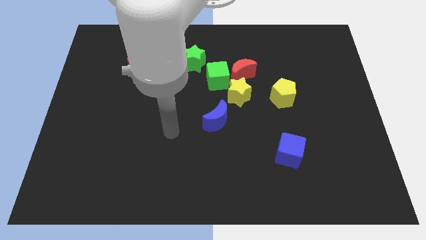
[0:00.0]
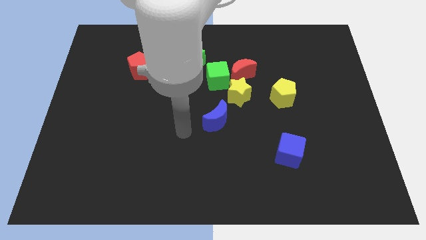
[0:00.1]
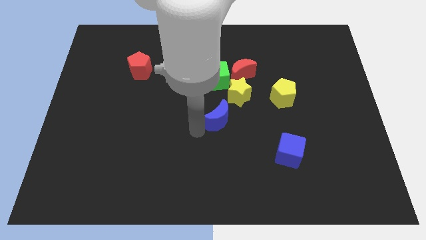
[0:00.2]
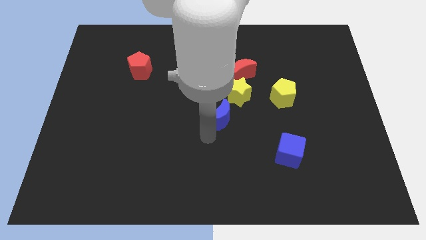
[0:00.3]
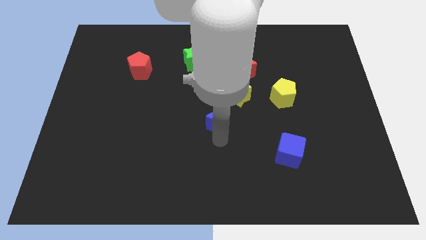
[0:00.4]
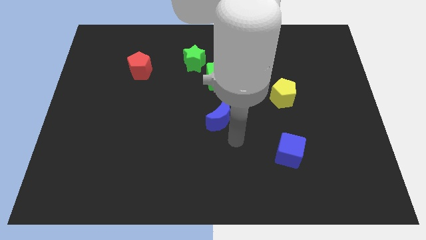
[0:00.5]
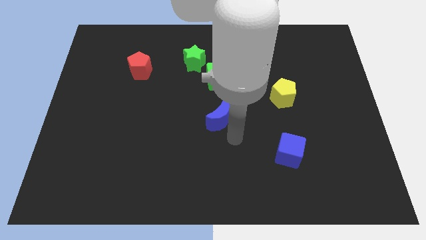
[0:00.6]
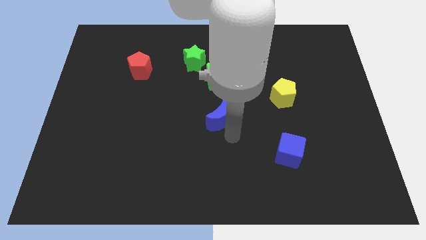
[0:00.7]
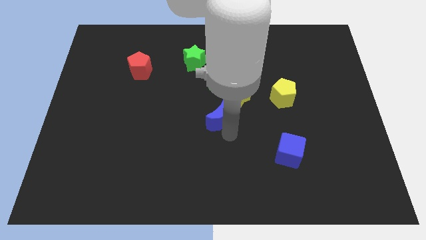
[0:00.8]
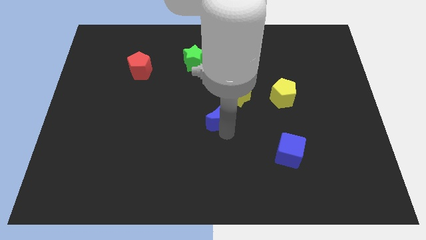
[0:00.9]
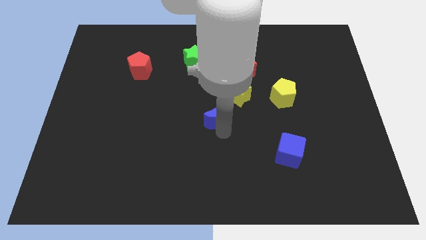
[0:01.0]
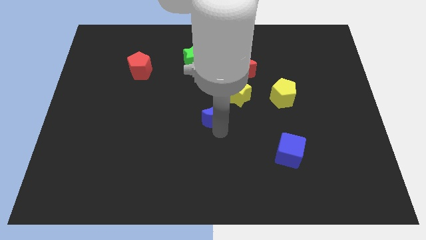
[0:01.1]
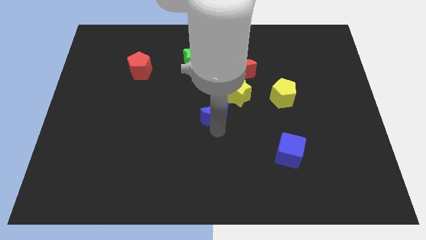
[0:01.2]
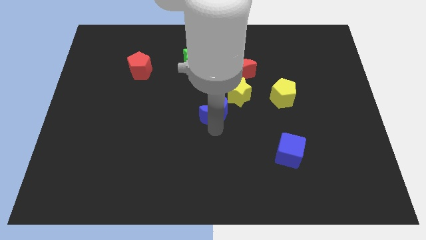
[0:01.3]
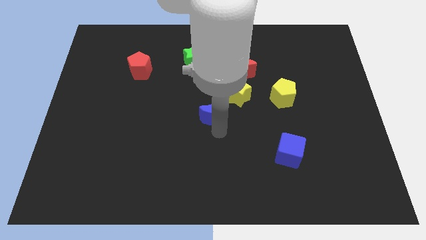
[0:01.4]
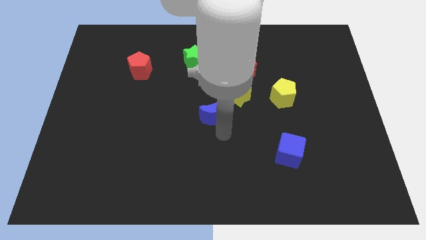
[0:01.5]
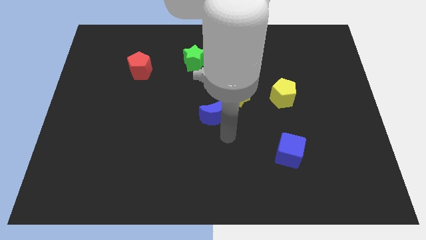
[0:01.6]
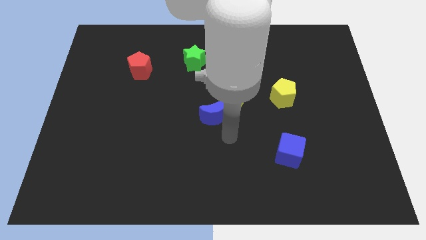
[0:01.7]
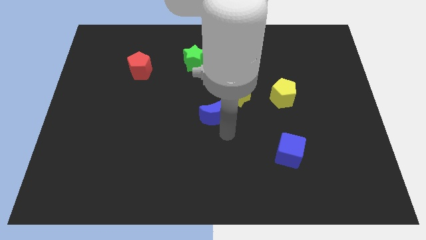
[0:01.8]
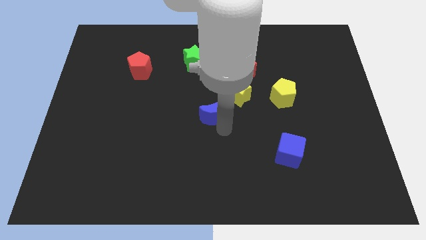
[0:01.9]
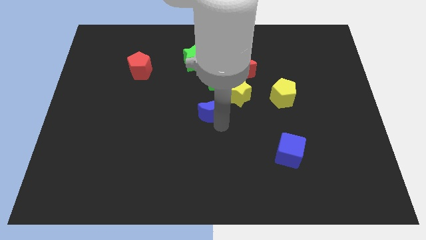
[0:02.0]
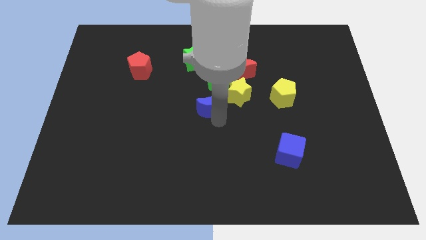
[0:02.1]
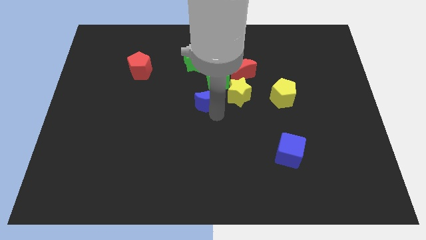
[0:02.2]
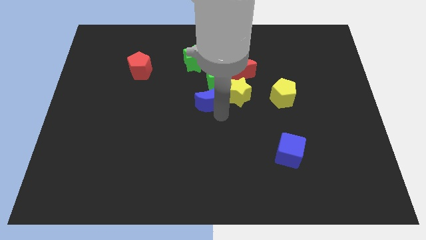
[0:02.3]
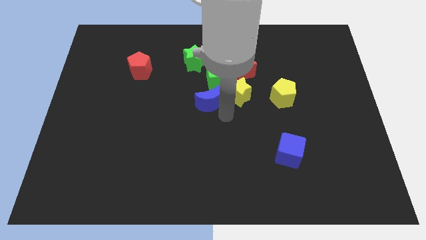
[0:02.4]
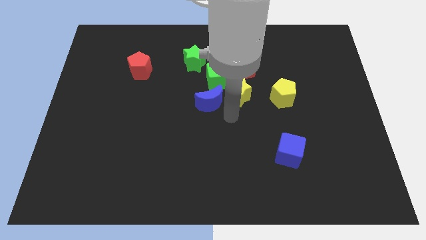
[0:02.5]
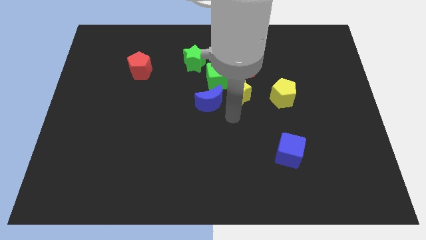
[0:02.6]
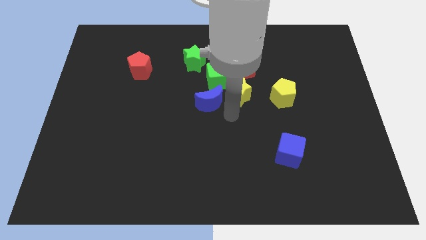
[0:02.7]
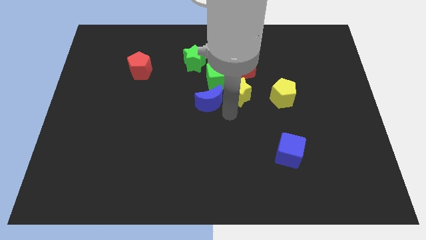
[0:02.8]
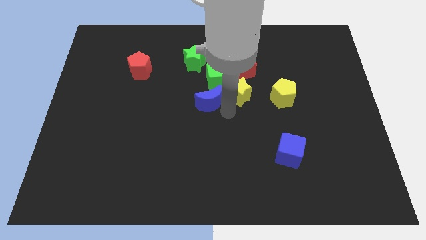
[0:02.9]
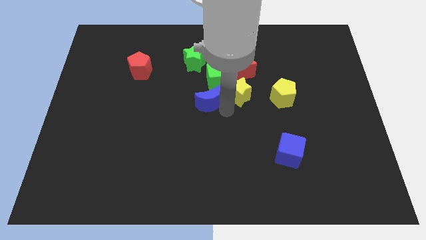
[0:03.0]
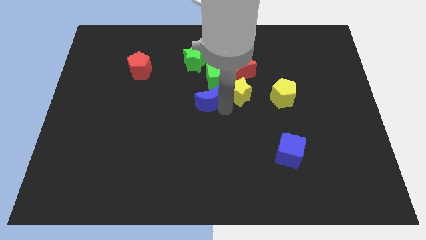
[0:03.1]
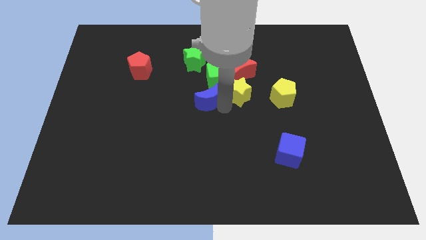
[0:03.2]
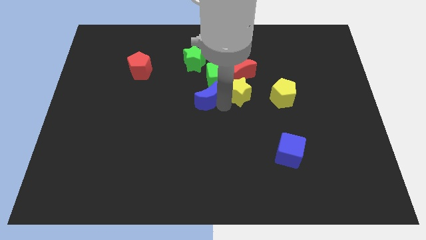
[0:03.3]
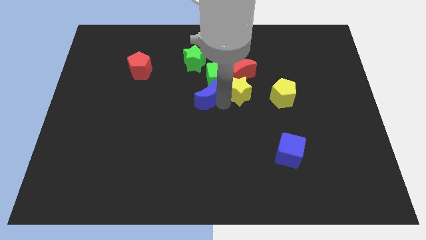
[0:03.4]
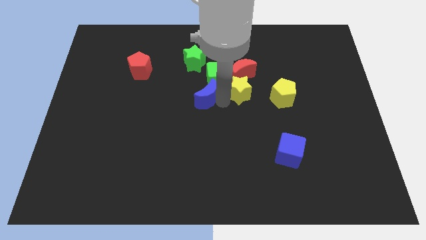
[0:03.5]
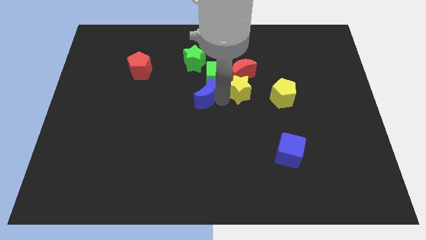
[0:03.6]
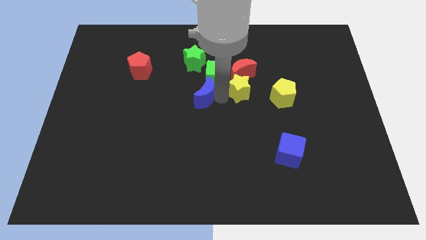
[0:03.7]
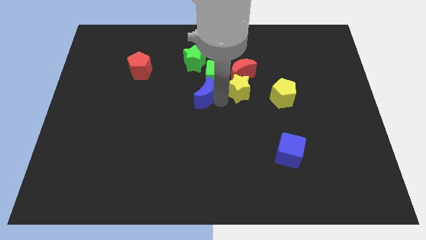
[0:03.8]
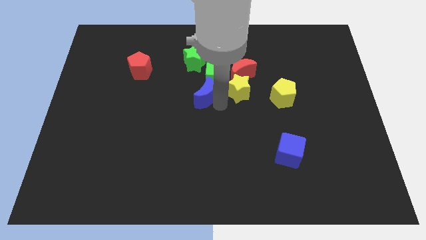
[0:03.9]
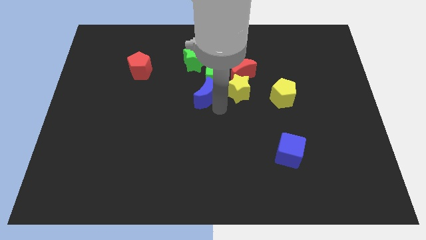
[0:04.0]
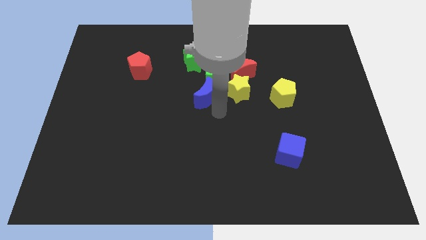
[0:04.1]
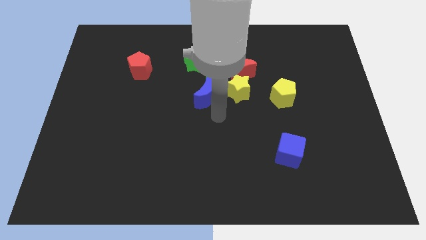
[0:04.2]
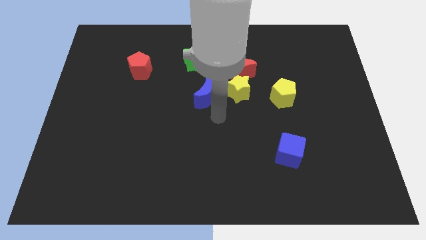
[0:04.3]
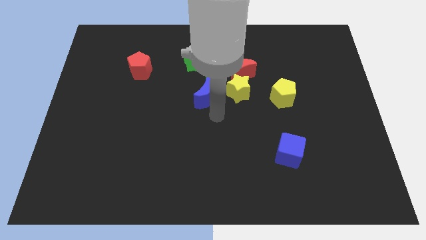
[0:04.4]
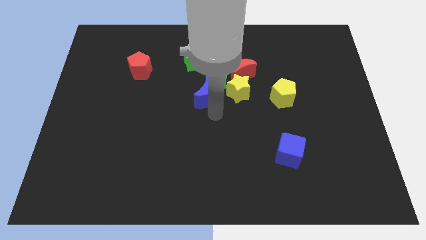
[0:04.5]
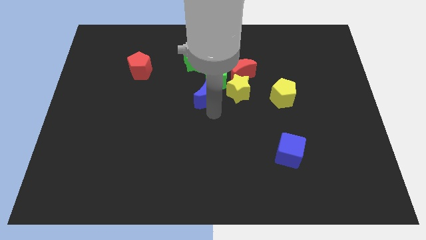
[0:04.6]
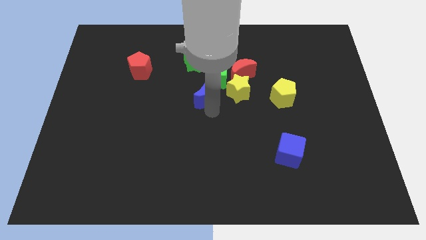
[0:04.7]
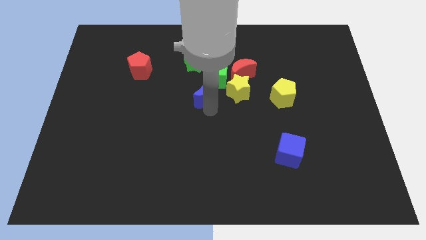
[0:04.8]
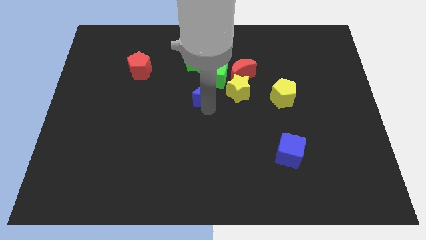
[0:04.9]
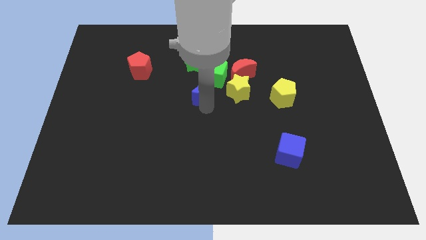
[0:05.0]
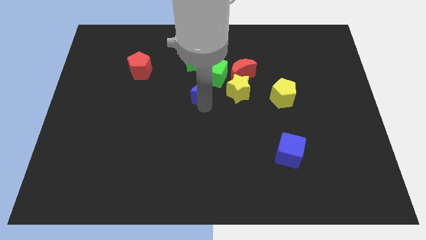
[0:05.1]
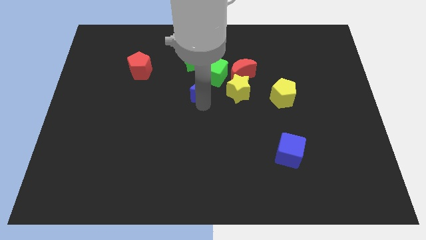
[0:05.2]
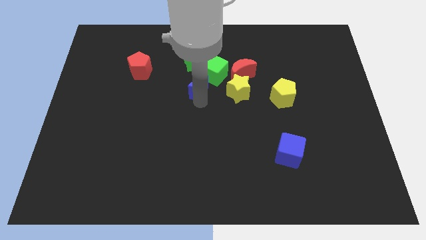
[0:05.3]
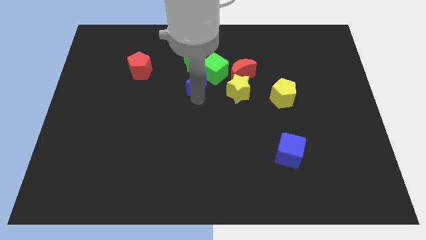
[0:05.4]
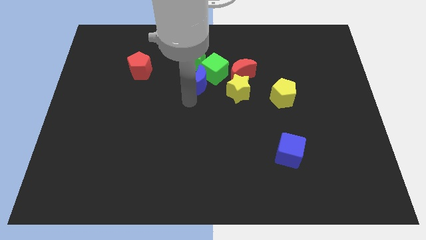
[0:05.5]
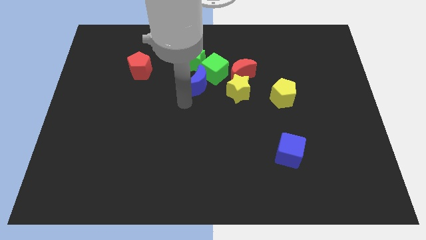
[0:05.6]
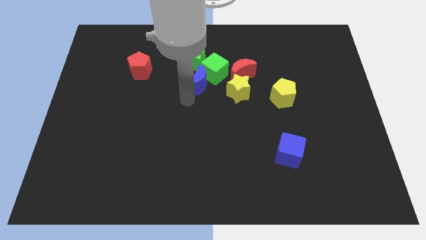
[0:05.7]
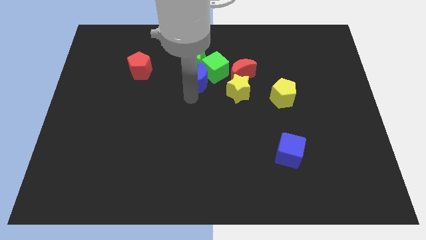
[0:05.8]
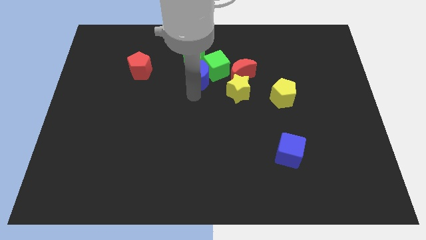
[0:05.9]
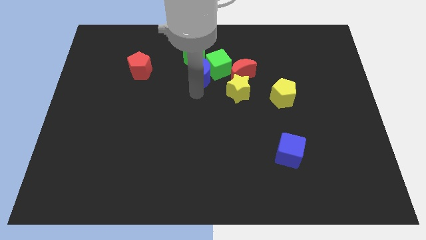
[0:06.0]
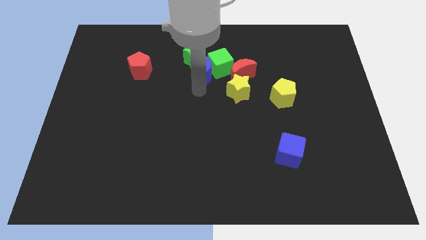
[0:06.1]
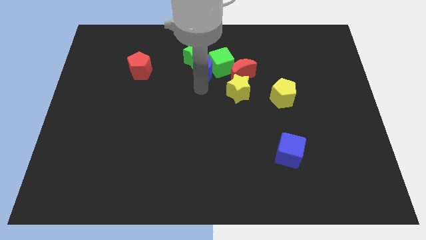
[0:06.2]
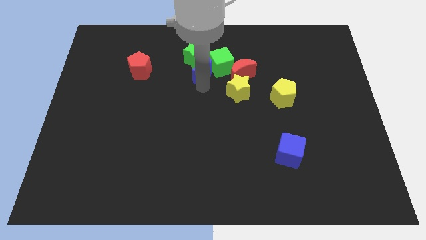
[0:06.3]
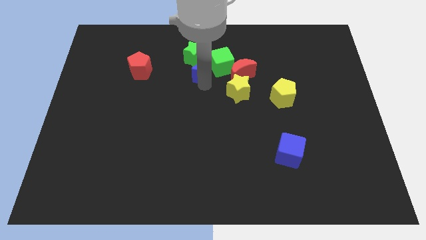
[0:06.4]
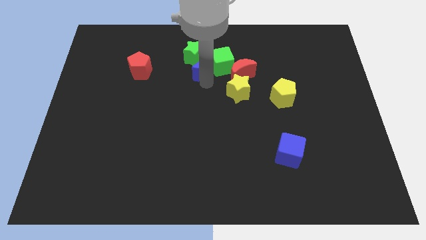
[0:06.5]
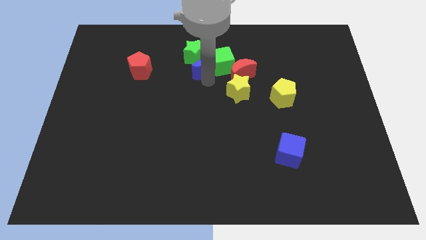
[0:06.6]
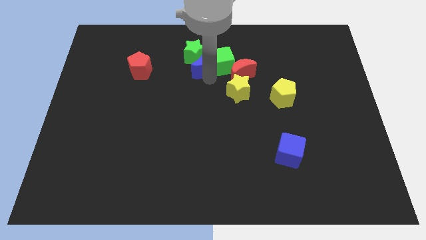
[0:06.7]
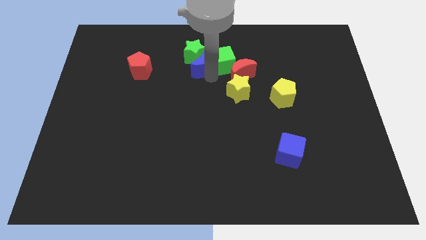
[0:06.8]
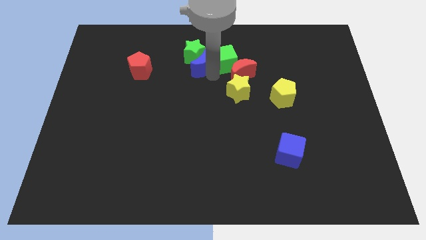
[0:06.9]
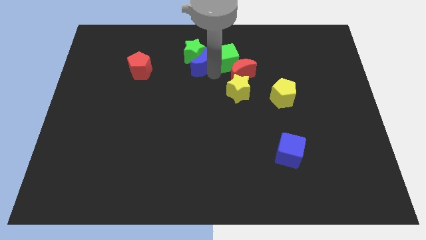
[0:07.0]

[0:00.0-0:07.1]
put the blue moon to the top left of the red moon

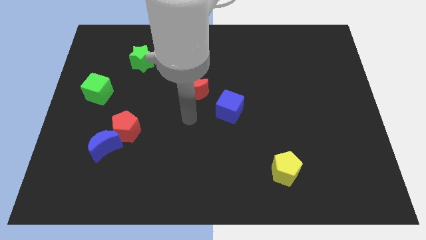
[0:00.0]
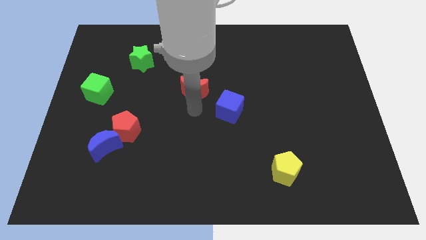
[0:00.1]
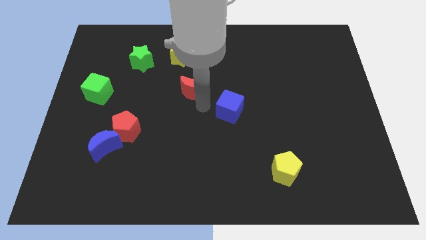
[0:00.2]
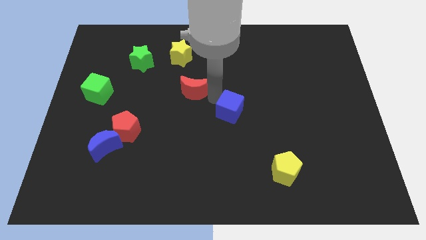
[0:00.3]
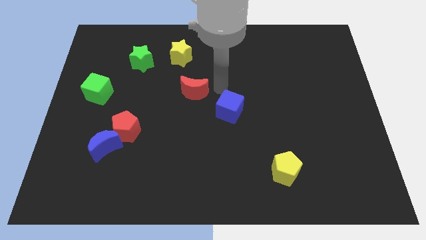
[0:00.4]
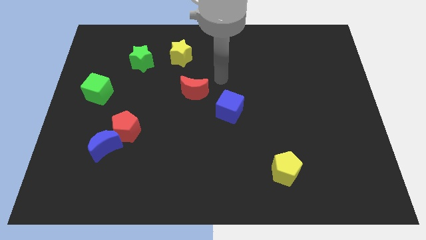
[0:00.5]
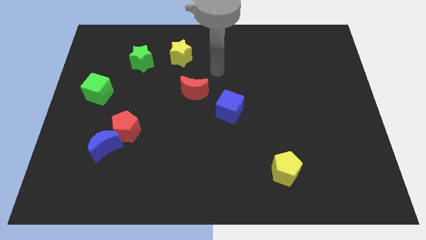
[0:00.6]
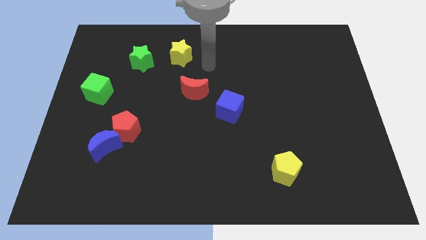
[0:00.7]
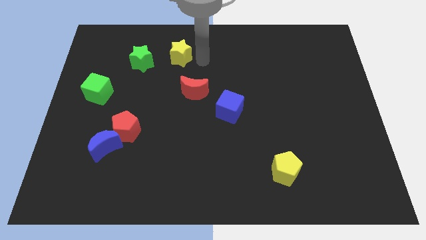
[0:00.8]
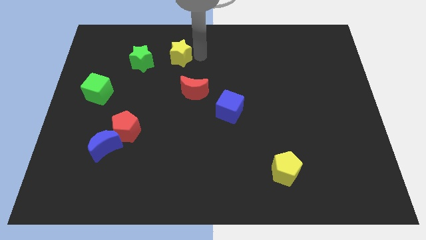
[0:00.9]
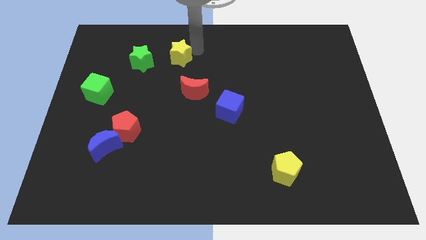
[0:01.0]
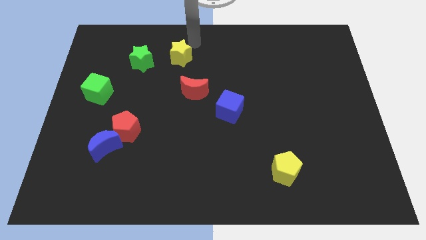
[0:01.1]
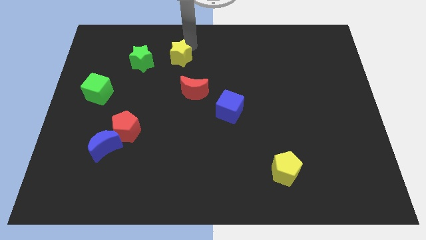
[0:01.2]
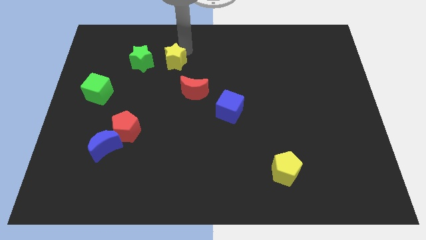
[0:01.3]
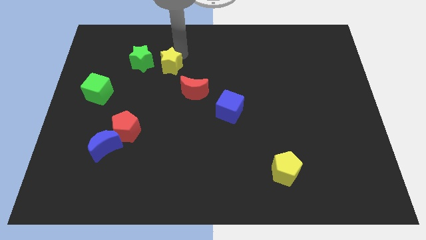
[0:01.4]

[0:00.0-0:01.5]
push the yellow star diagonally down and to the right of the green star
